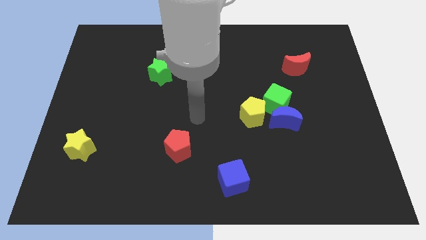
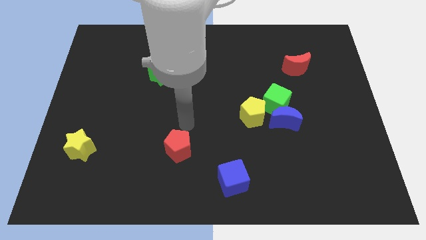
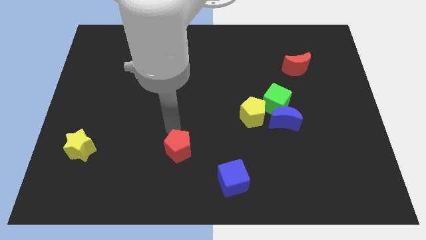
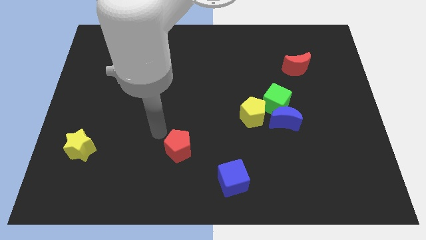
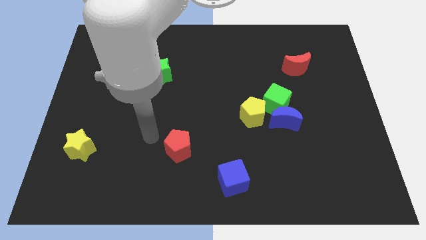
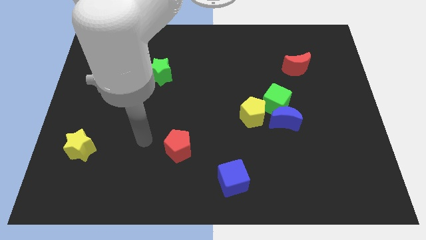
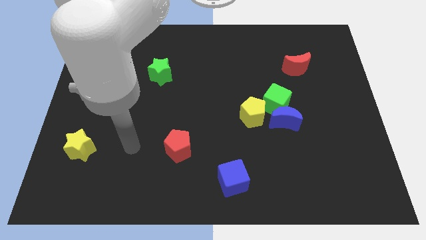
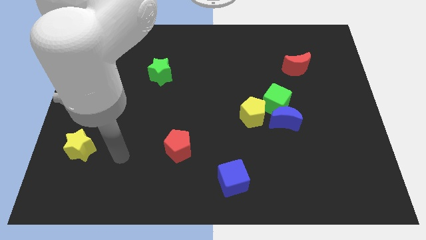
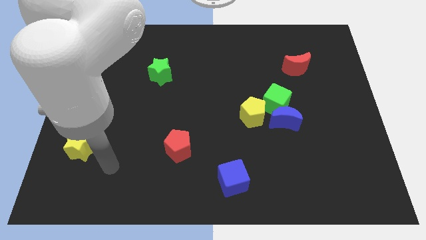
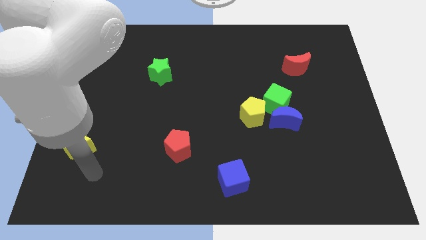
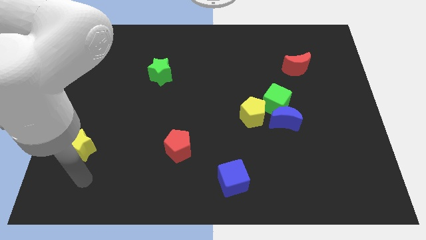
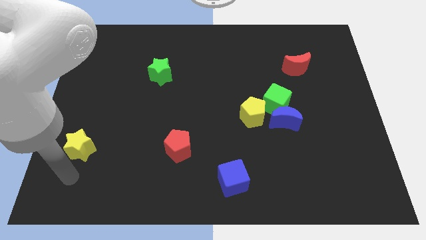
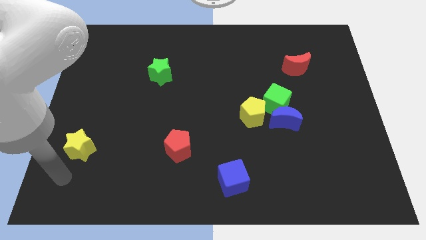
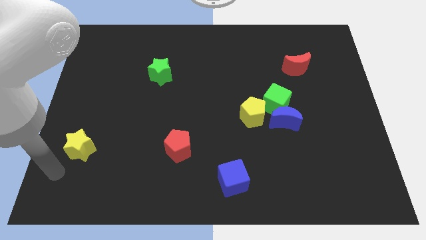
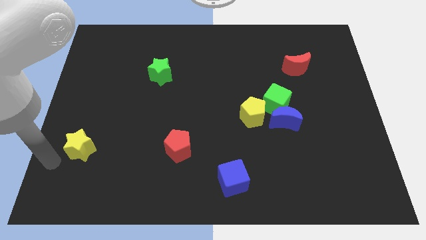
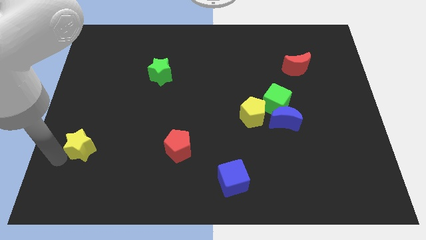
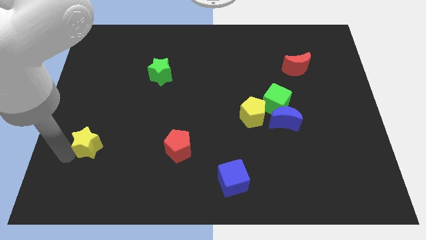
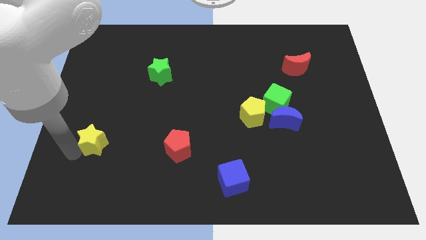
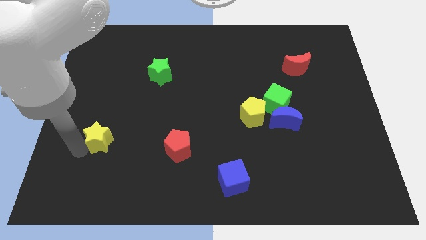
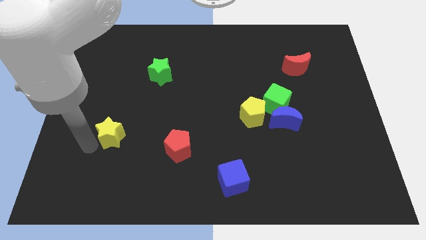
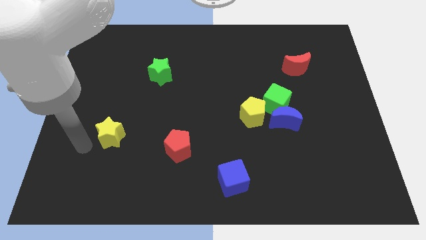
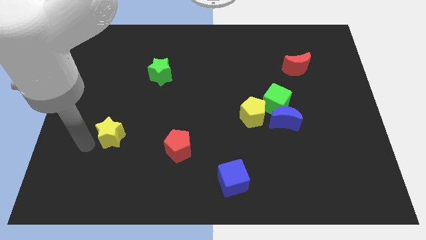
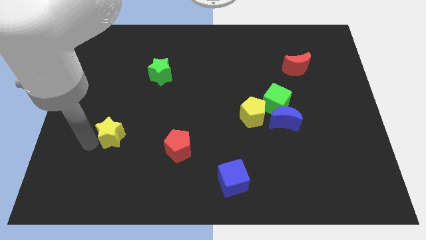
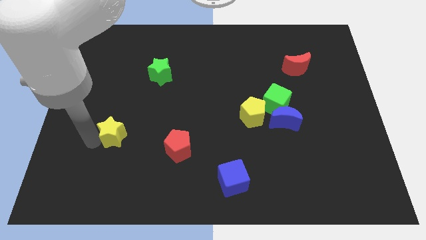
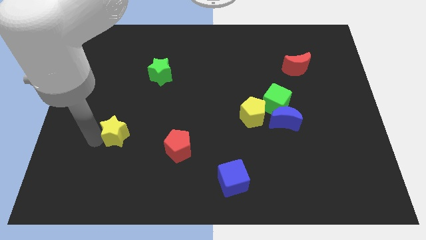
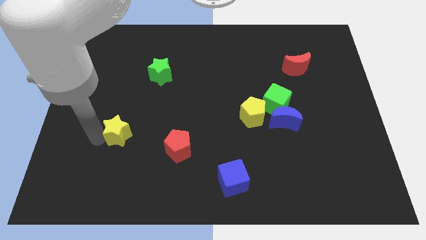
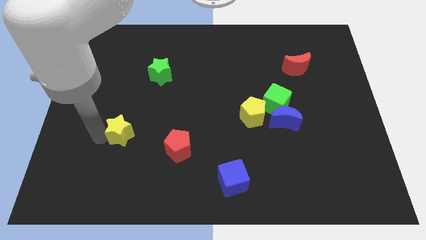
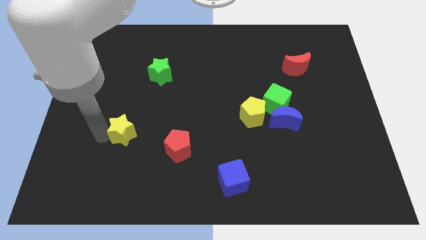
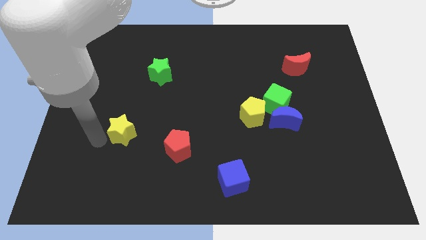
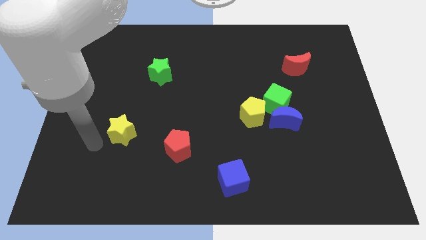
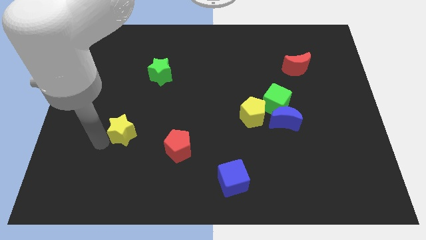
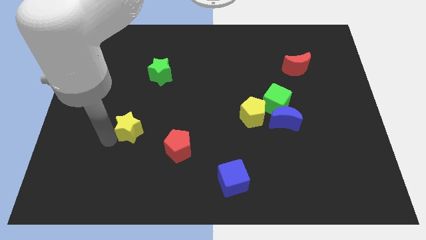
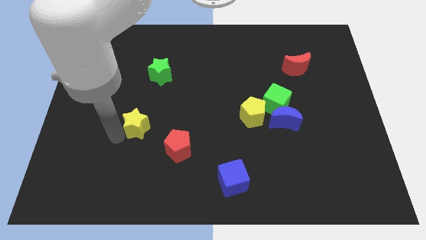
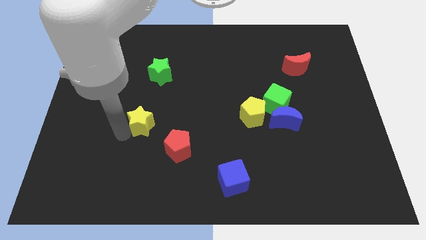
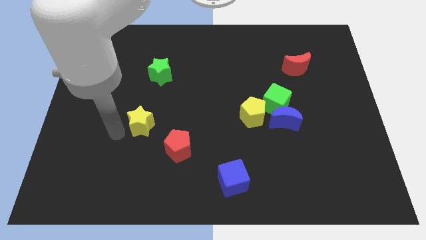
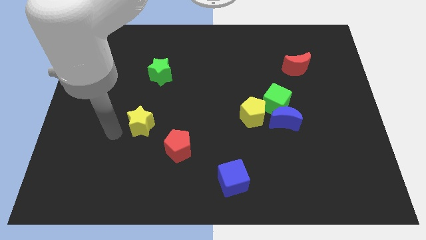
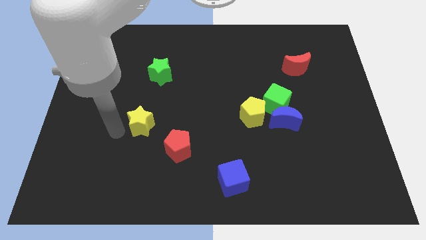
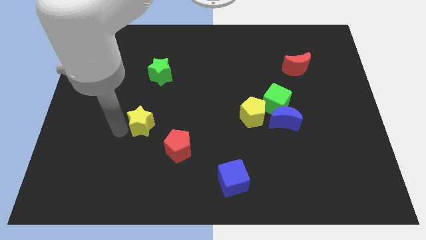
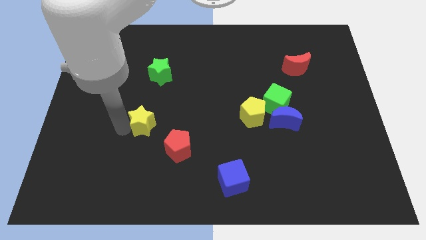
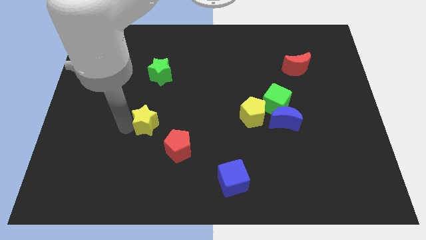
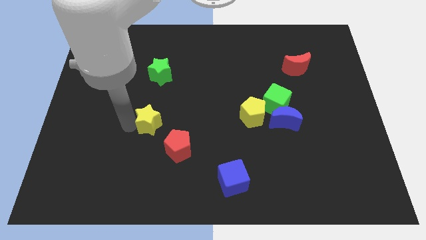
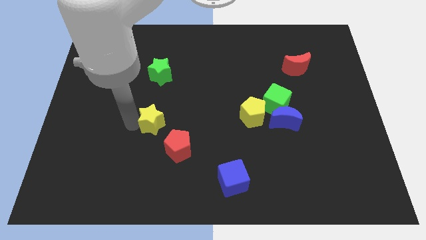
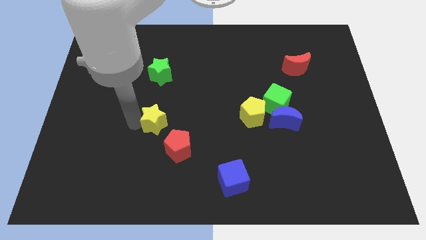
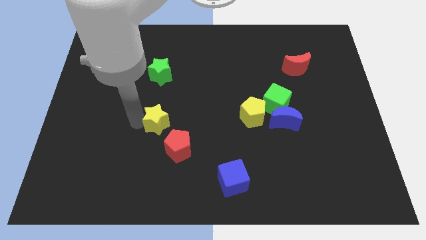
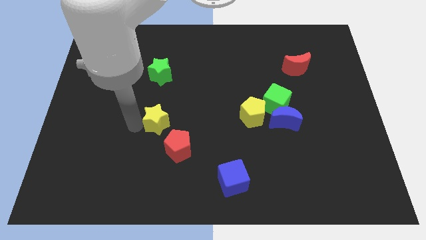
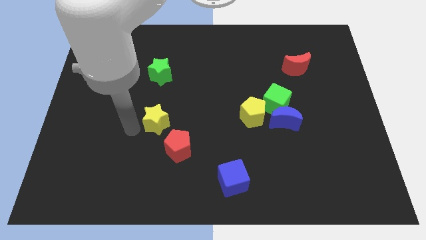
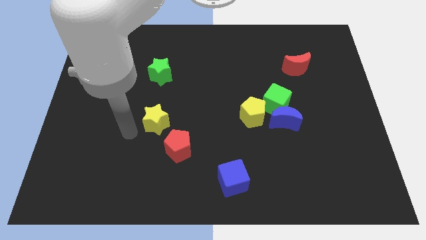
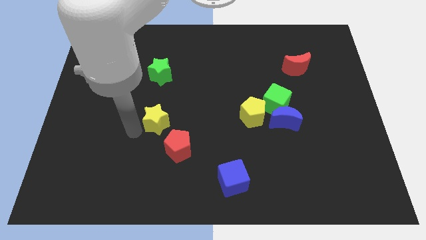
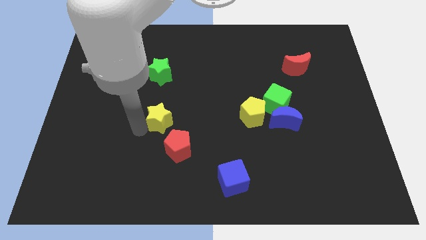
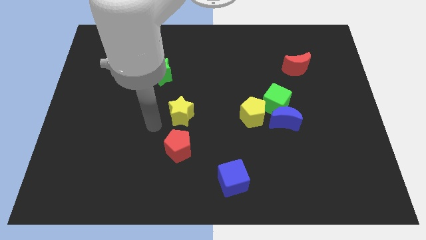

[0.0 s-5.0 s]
push the yellow star to the center
